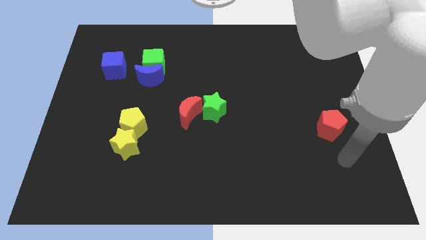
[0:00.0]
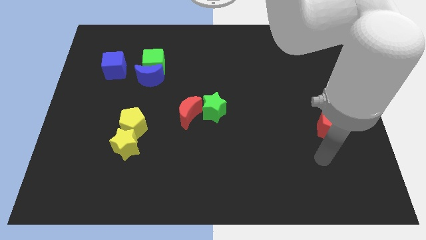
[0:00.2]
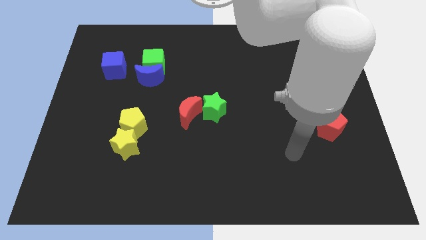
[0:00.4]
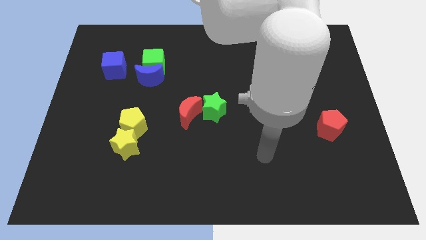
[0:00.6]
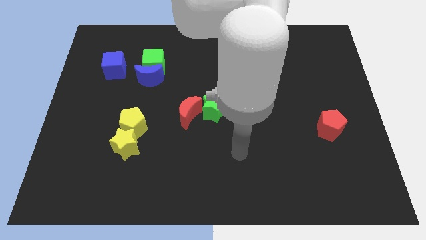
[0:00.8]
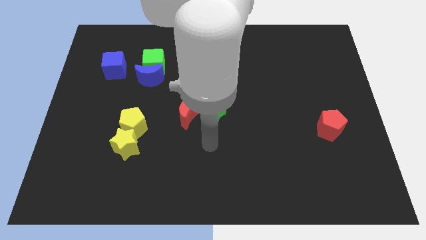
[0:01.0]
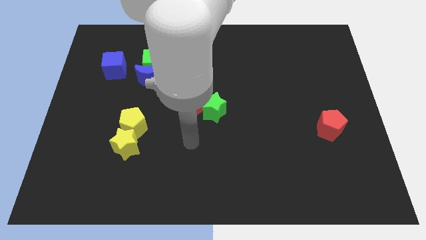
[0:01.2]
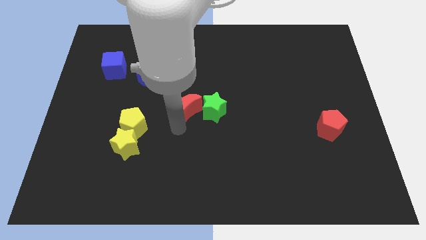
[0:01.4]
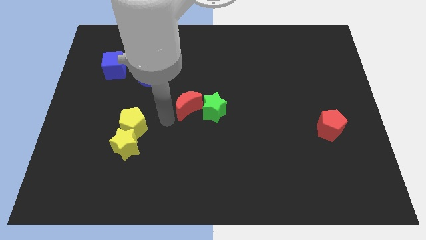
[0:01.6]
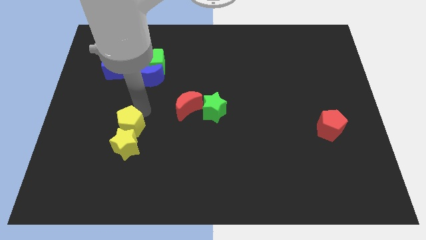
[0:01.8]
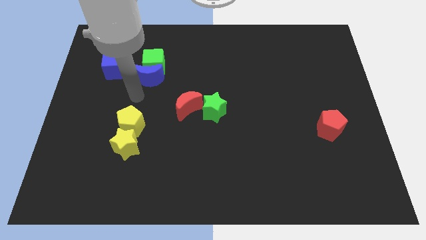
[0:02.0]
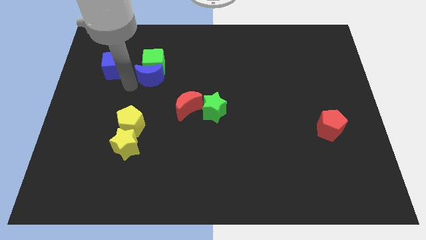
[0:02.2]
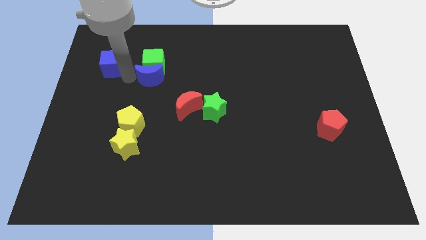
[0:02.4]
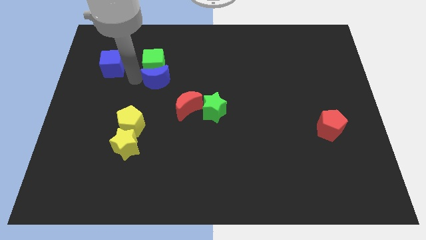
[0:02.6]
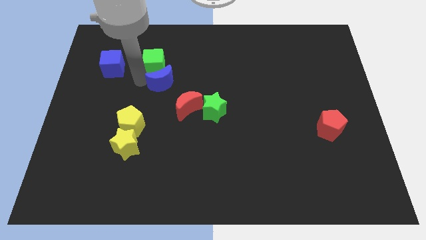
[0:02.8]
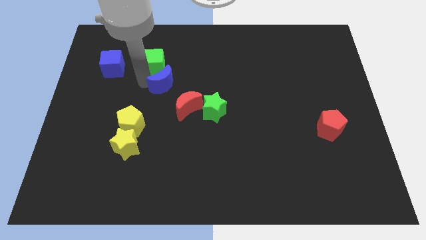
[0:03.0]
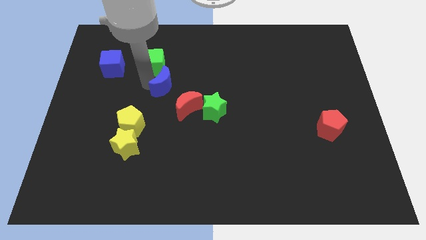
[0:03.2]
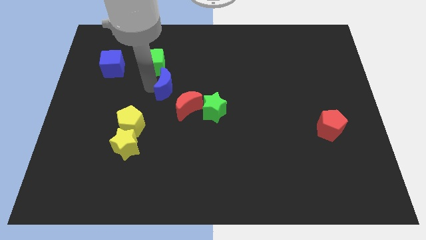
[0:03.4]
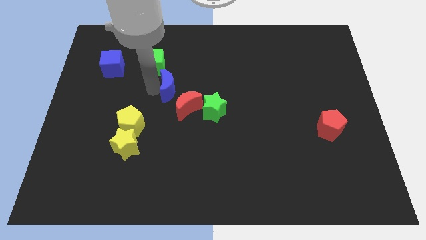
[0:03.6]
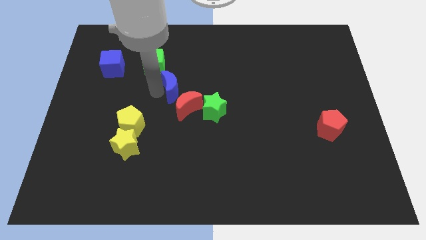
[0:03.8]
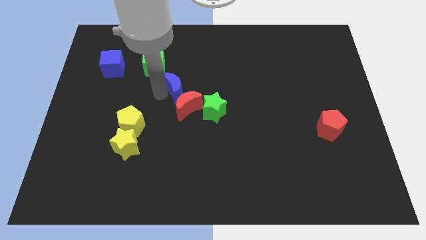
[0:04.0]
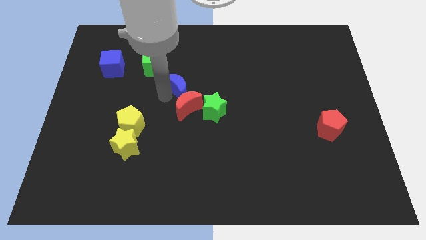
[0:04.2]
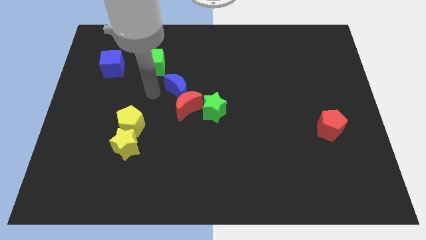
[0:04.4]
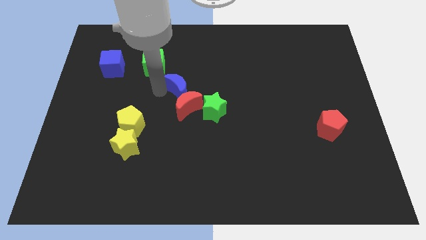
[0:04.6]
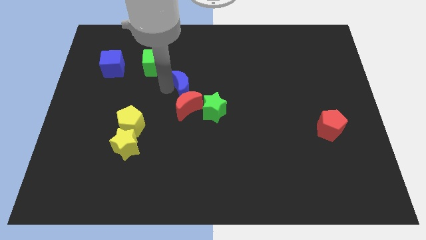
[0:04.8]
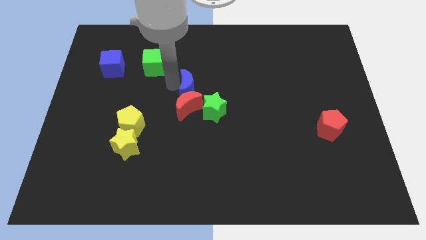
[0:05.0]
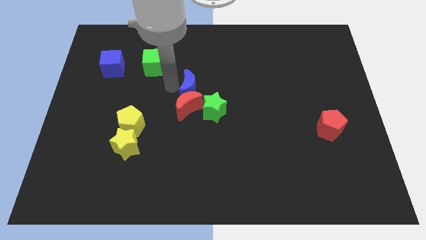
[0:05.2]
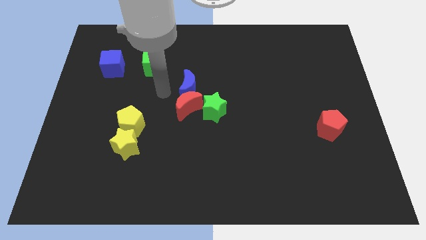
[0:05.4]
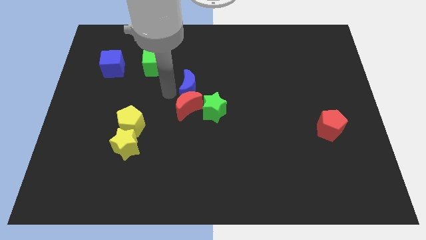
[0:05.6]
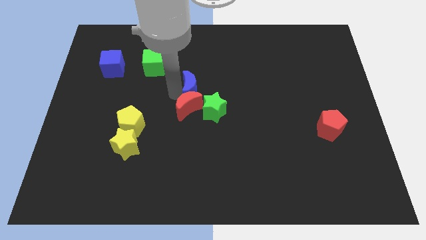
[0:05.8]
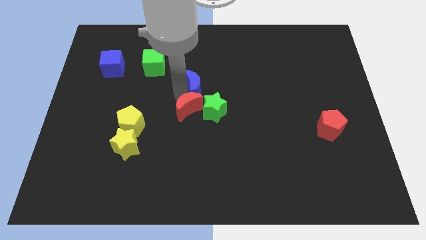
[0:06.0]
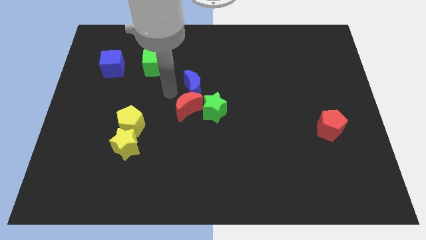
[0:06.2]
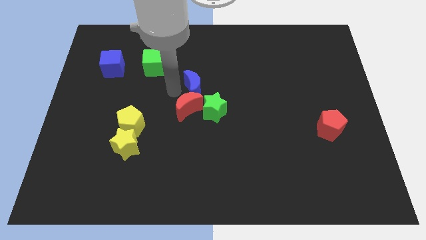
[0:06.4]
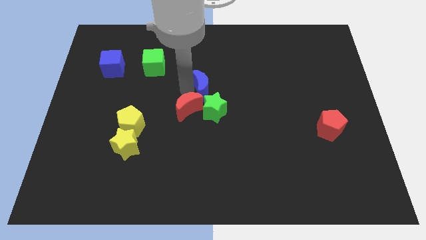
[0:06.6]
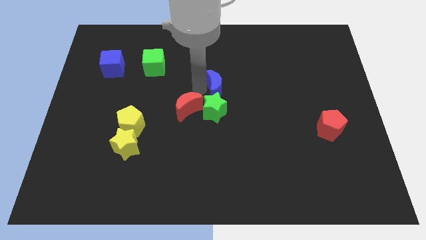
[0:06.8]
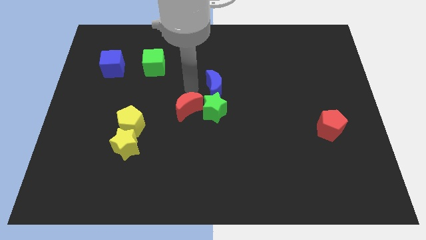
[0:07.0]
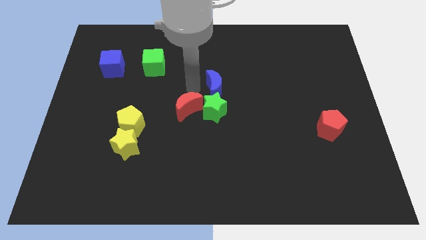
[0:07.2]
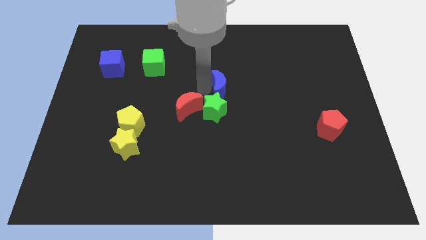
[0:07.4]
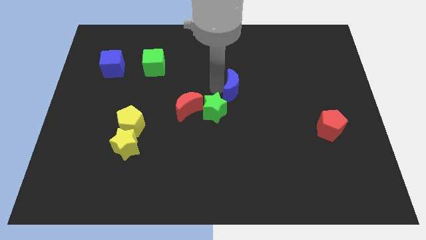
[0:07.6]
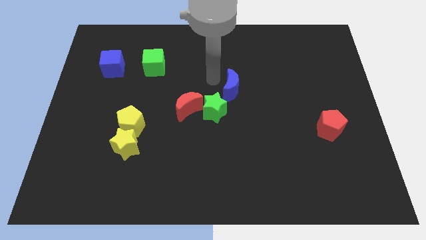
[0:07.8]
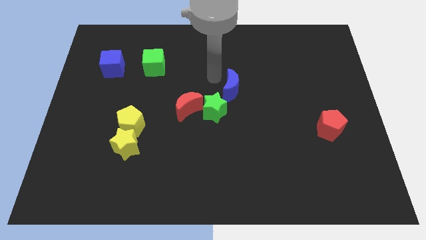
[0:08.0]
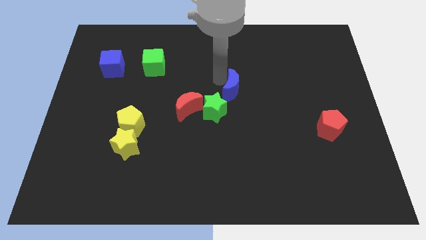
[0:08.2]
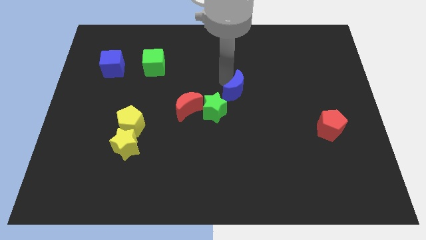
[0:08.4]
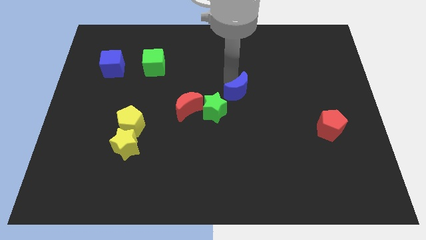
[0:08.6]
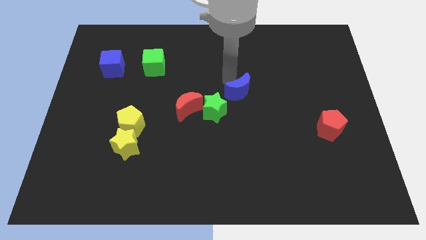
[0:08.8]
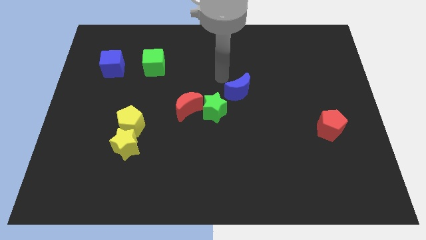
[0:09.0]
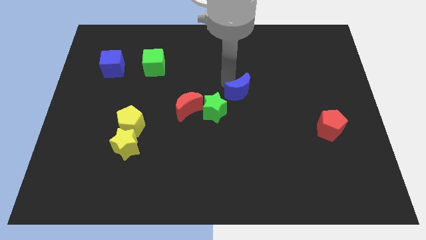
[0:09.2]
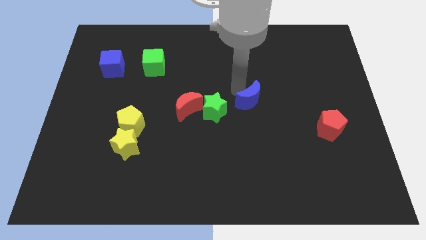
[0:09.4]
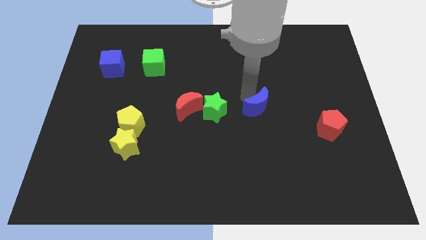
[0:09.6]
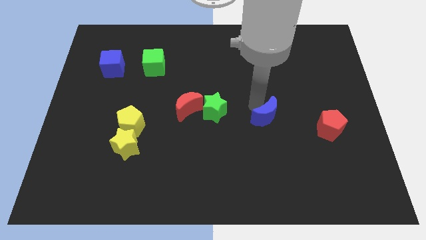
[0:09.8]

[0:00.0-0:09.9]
push the blue moon just left of the red pentagon

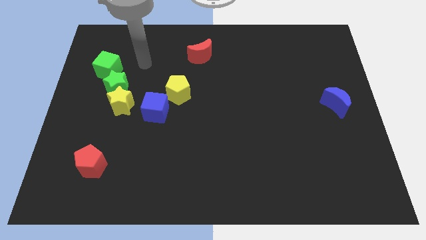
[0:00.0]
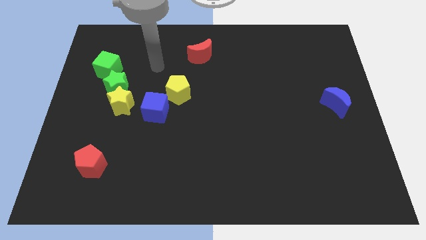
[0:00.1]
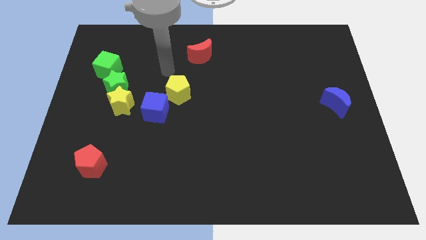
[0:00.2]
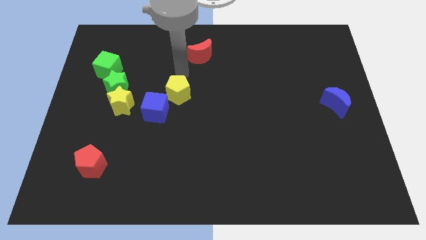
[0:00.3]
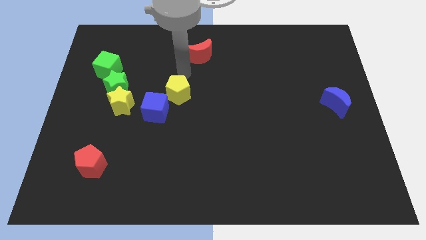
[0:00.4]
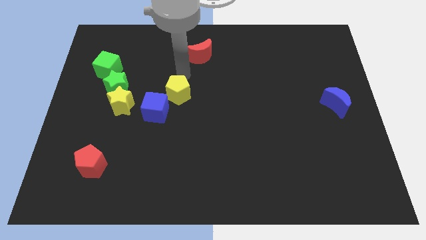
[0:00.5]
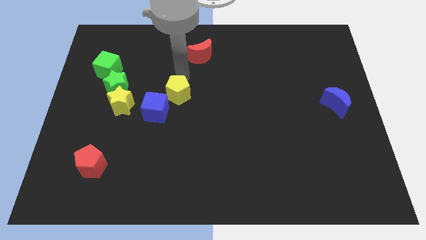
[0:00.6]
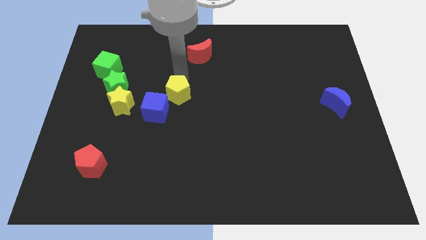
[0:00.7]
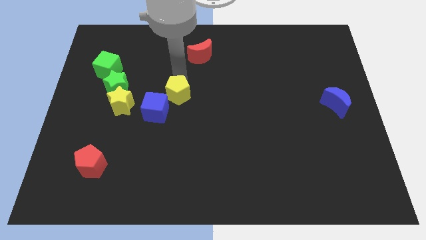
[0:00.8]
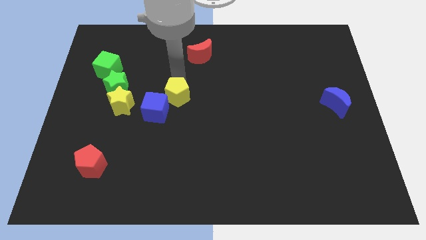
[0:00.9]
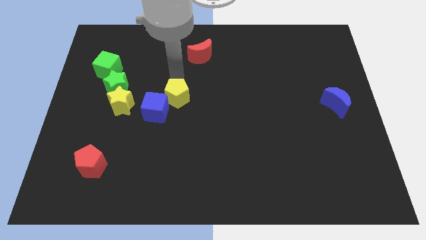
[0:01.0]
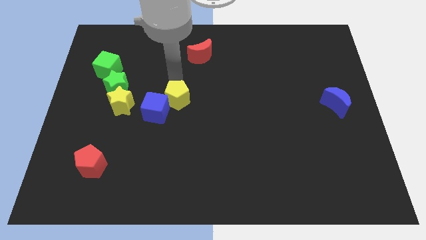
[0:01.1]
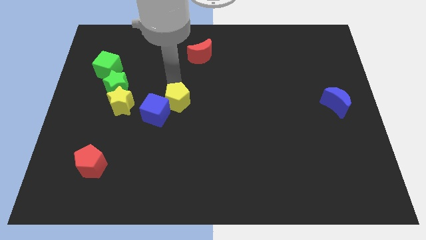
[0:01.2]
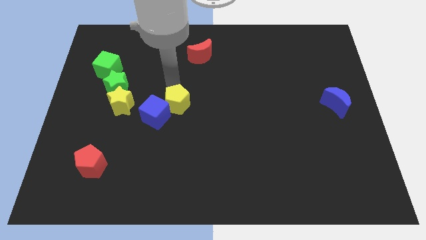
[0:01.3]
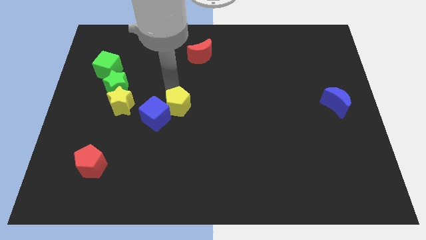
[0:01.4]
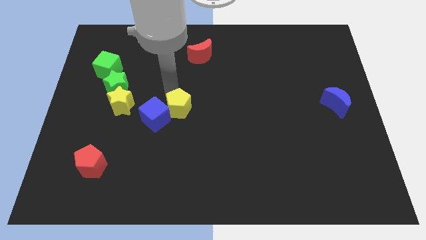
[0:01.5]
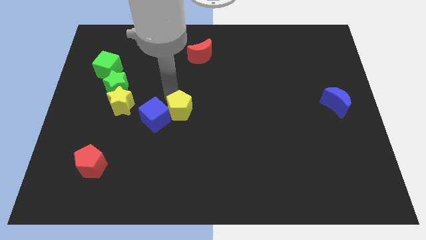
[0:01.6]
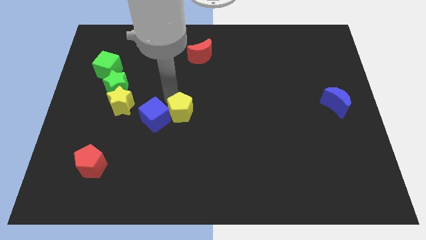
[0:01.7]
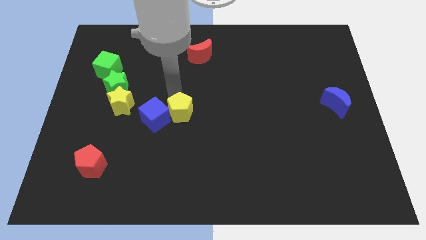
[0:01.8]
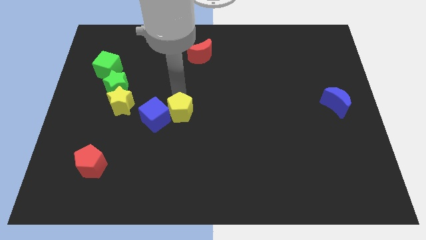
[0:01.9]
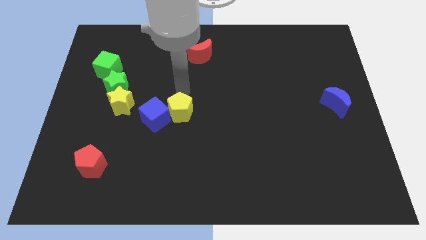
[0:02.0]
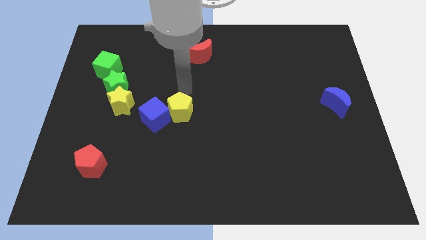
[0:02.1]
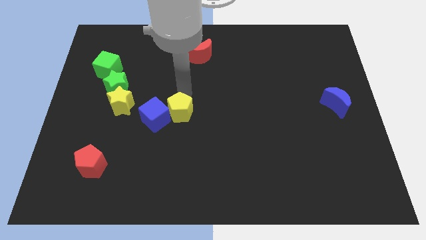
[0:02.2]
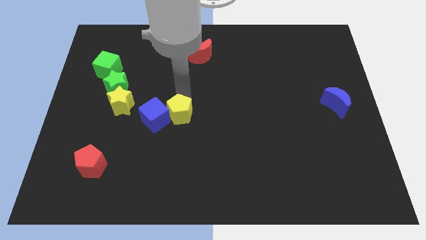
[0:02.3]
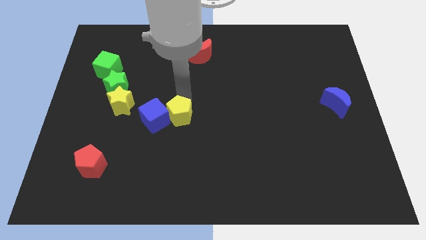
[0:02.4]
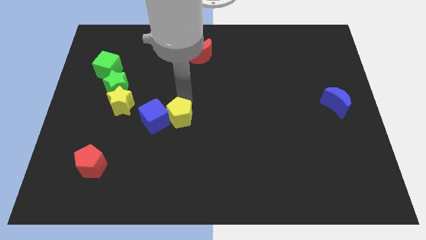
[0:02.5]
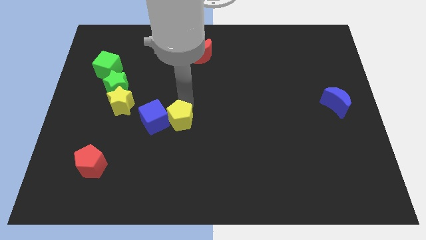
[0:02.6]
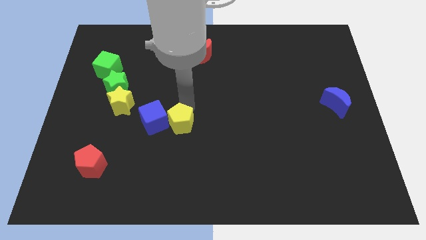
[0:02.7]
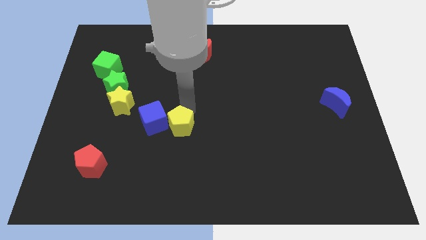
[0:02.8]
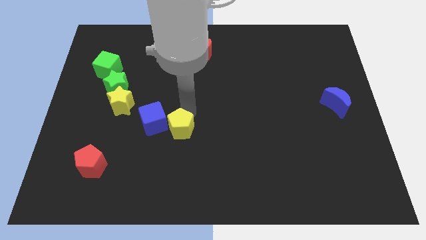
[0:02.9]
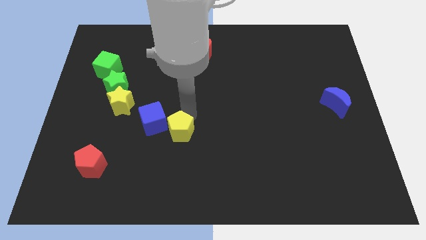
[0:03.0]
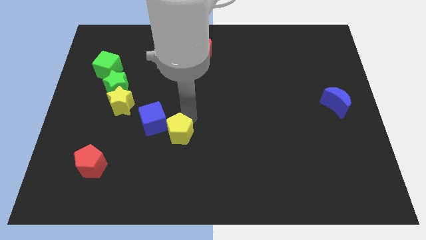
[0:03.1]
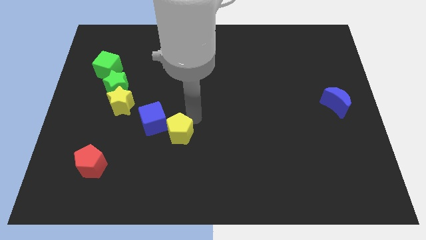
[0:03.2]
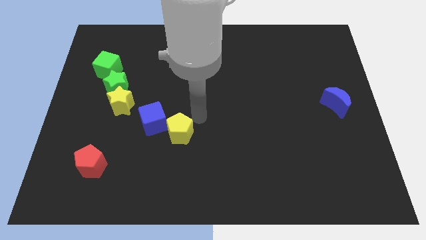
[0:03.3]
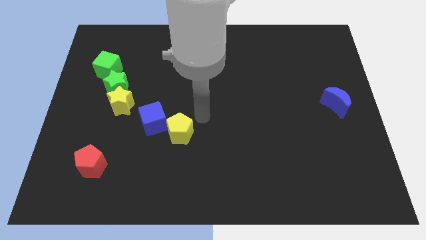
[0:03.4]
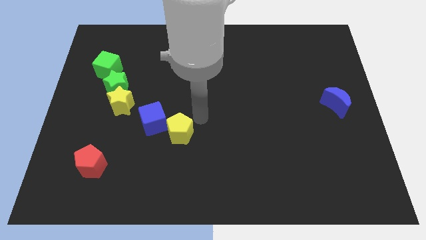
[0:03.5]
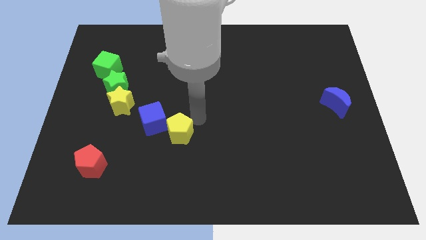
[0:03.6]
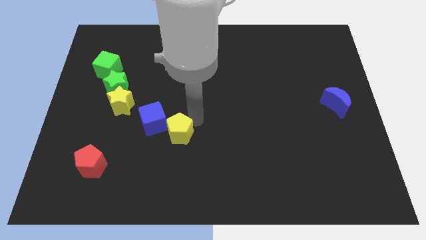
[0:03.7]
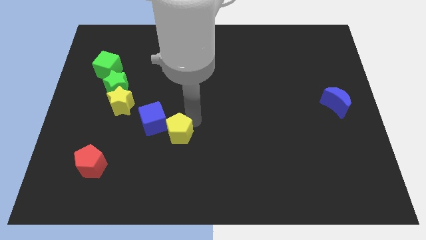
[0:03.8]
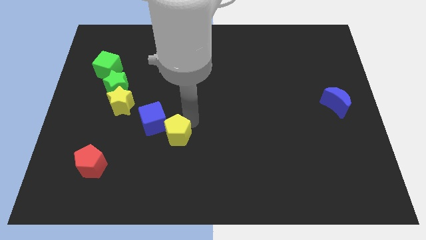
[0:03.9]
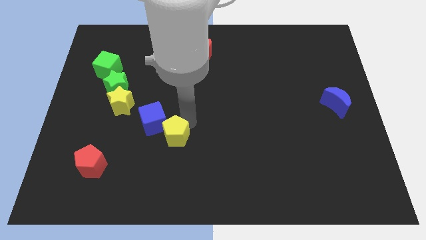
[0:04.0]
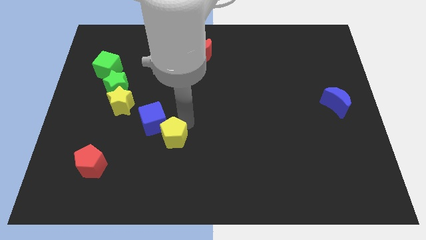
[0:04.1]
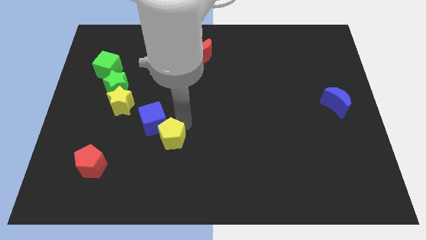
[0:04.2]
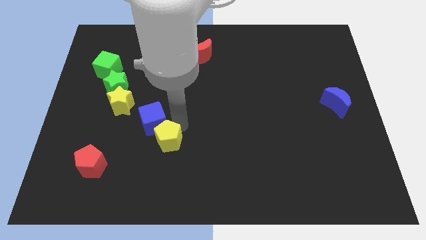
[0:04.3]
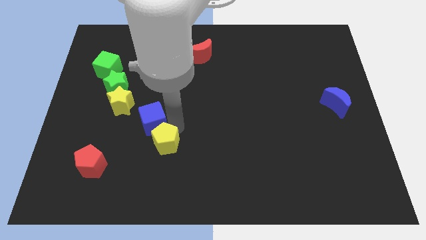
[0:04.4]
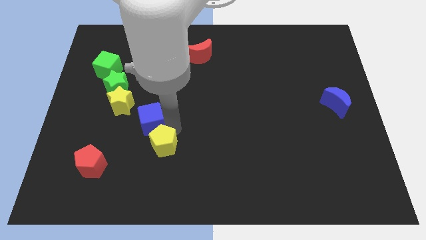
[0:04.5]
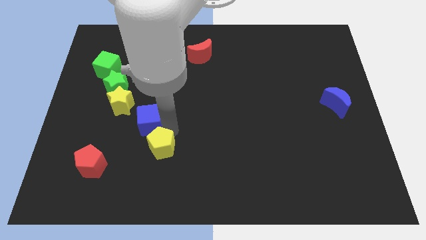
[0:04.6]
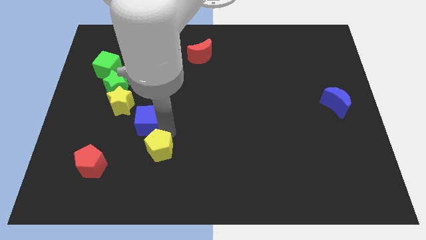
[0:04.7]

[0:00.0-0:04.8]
put the yellow pentagon to the right of the red pentagon
